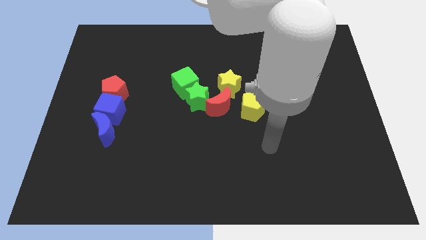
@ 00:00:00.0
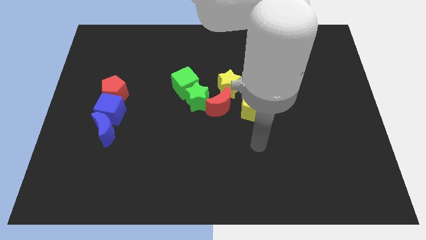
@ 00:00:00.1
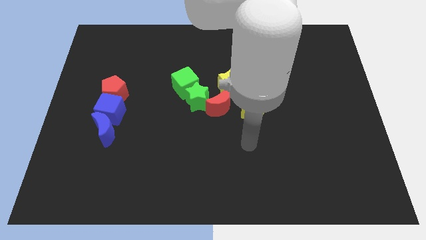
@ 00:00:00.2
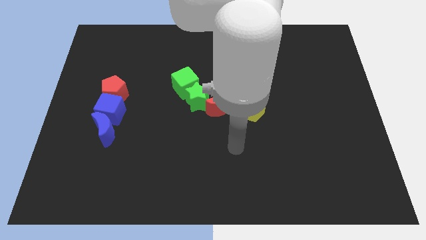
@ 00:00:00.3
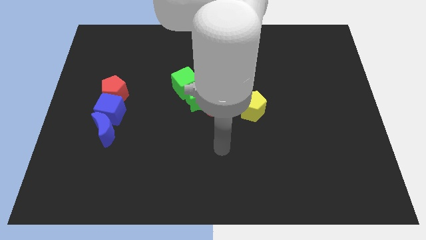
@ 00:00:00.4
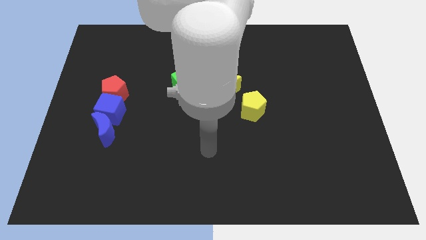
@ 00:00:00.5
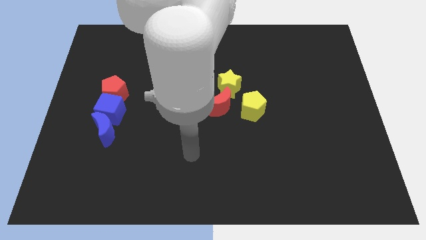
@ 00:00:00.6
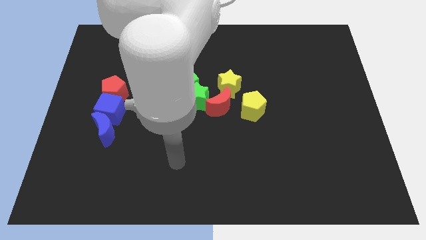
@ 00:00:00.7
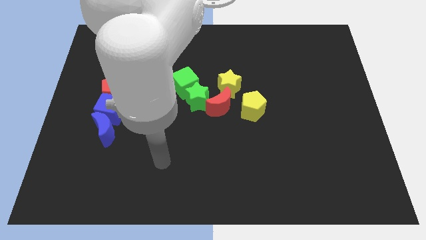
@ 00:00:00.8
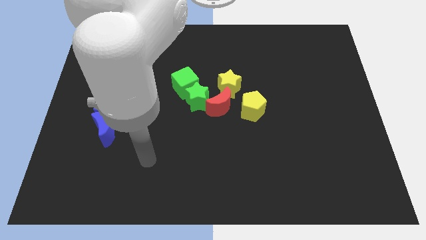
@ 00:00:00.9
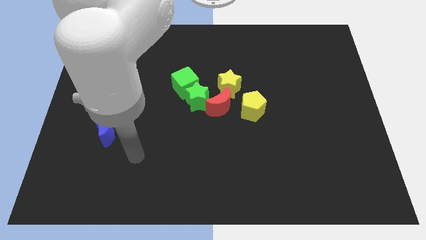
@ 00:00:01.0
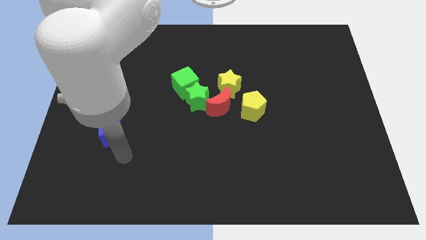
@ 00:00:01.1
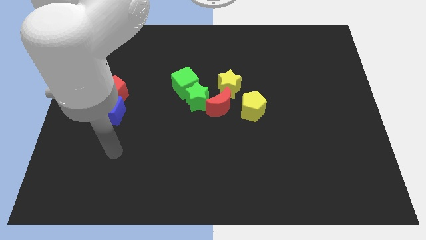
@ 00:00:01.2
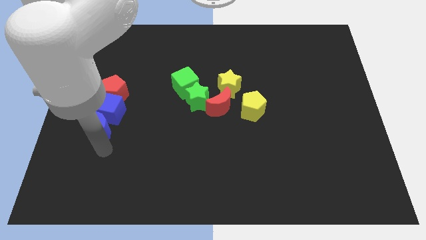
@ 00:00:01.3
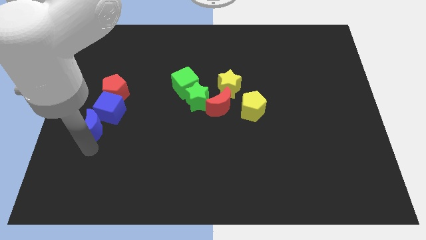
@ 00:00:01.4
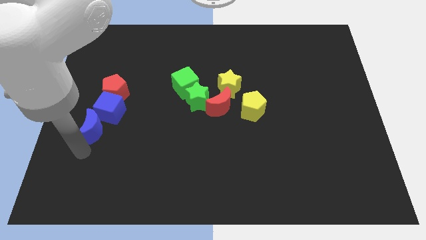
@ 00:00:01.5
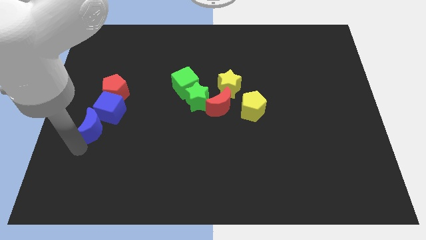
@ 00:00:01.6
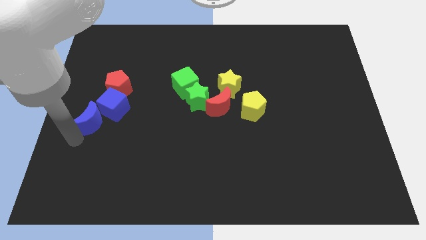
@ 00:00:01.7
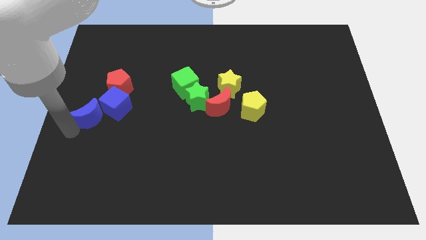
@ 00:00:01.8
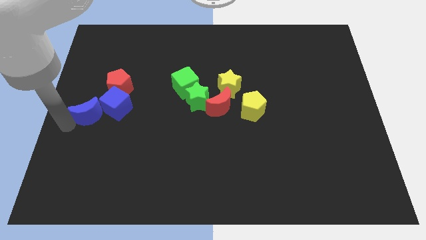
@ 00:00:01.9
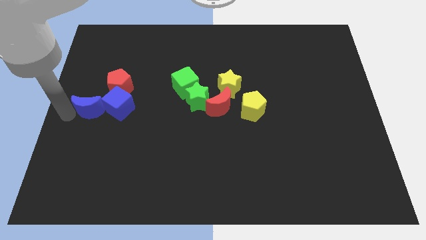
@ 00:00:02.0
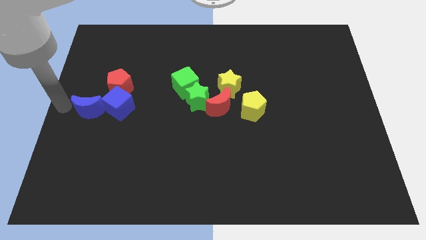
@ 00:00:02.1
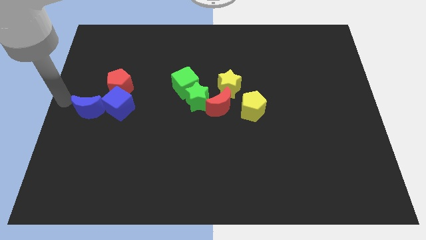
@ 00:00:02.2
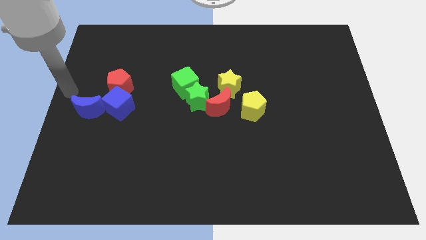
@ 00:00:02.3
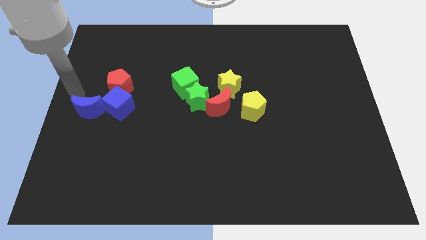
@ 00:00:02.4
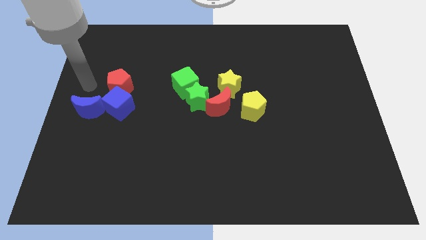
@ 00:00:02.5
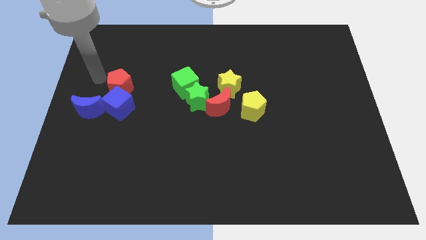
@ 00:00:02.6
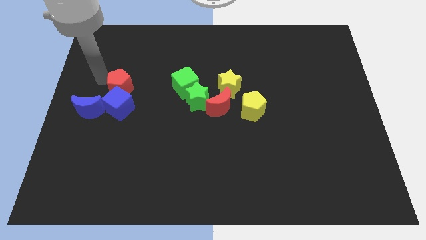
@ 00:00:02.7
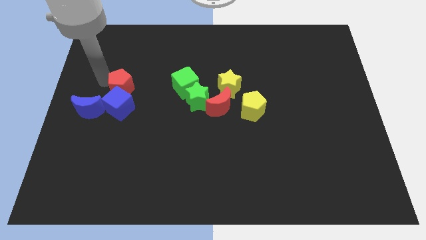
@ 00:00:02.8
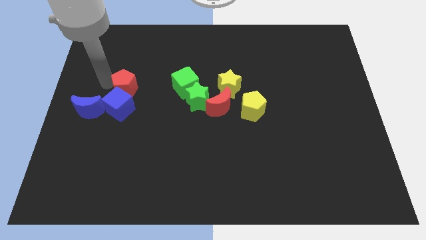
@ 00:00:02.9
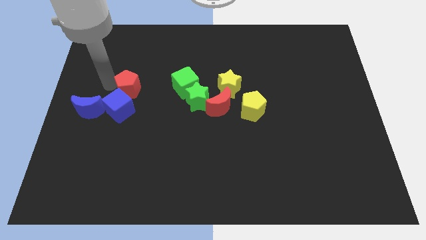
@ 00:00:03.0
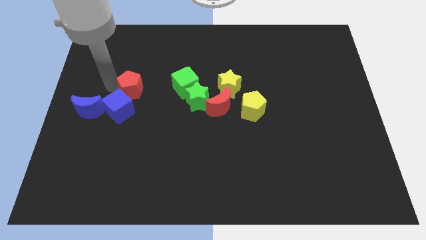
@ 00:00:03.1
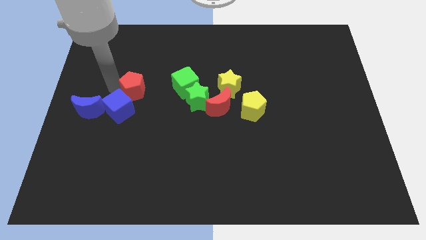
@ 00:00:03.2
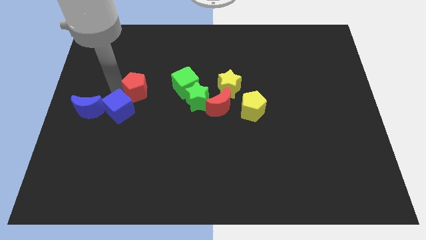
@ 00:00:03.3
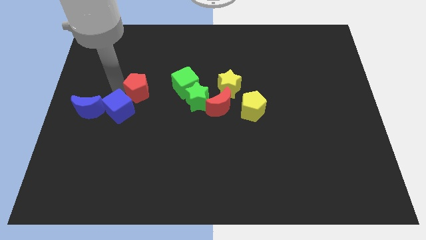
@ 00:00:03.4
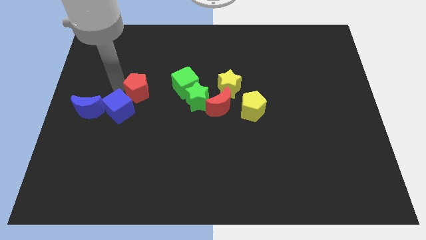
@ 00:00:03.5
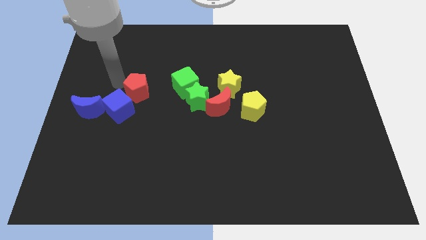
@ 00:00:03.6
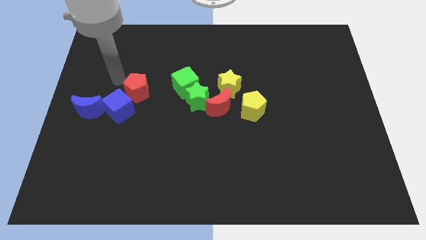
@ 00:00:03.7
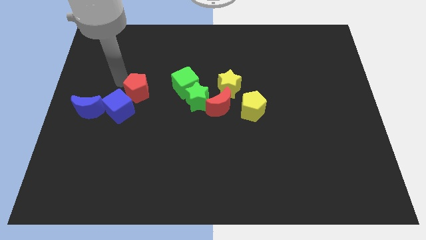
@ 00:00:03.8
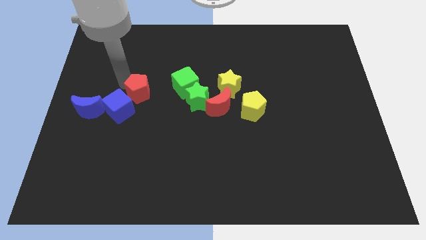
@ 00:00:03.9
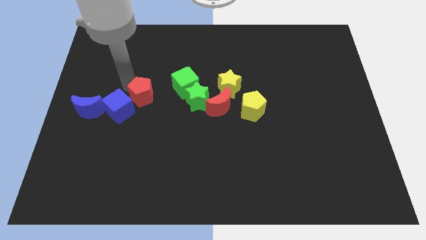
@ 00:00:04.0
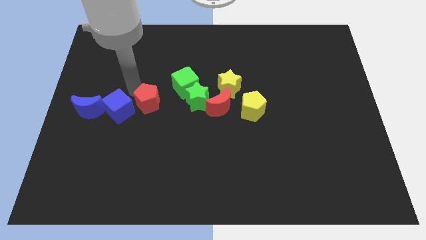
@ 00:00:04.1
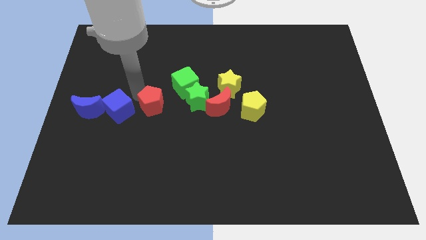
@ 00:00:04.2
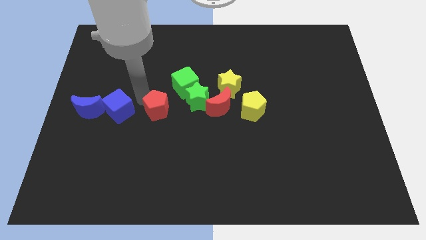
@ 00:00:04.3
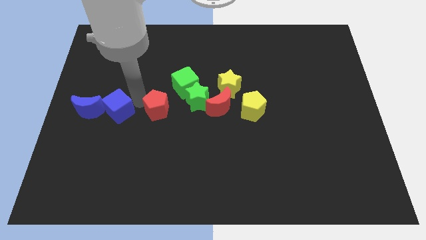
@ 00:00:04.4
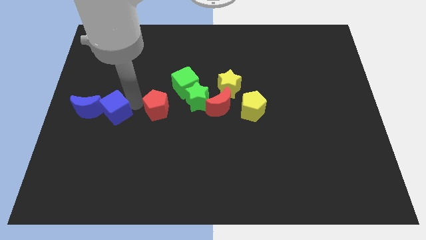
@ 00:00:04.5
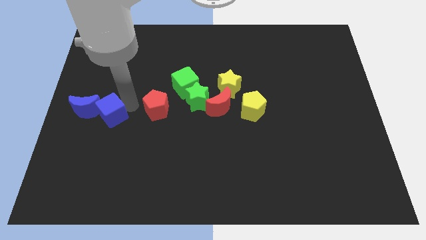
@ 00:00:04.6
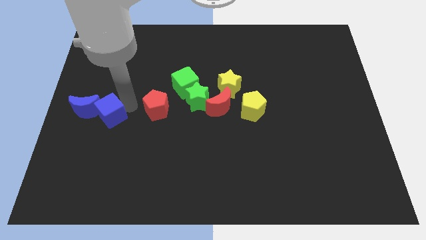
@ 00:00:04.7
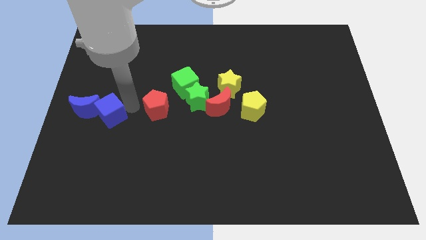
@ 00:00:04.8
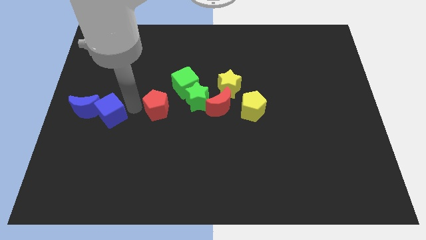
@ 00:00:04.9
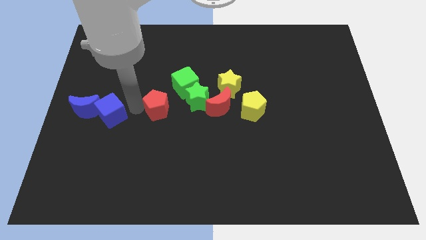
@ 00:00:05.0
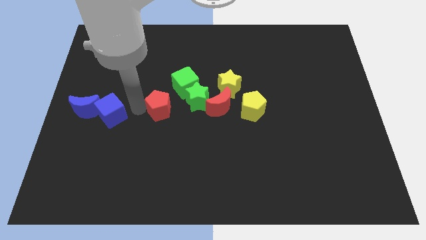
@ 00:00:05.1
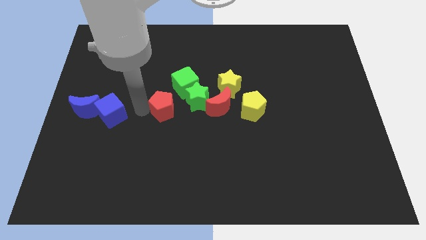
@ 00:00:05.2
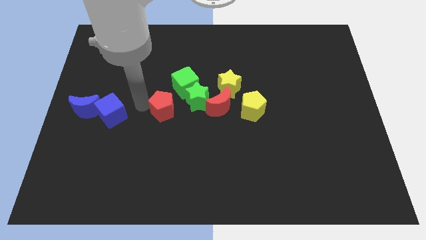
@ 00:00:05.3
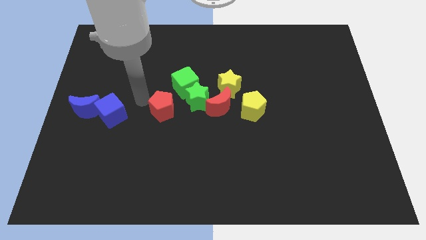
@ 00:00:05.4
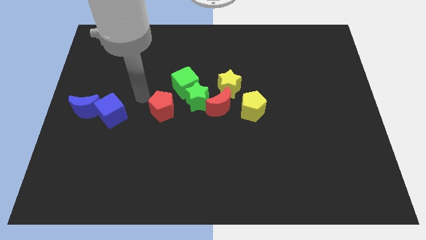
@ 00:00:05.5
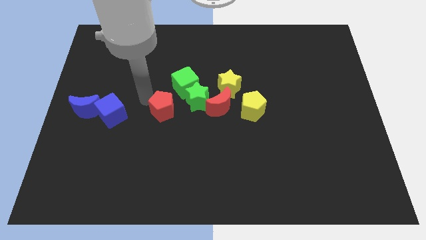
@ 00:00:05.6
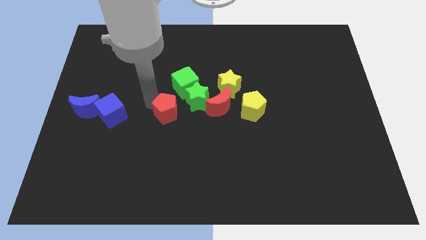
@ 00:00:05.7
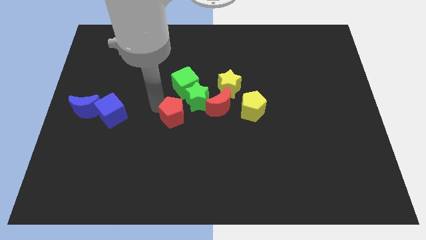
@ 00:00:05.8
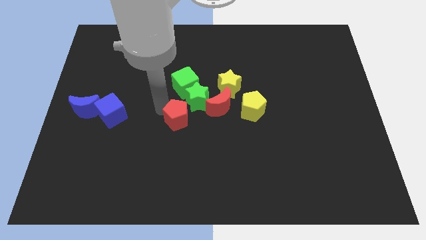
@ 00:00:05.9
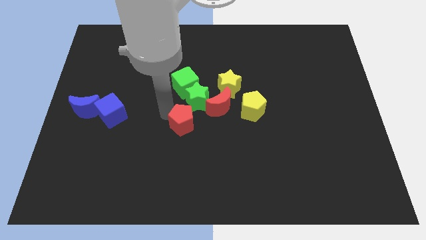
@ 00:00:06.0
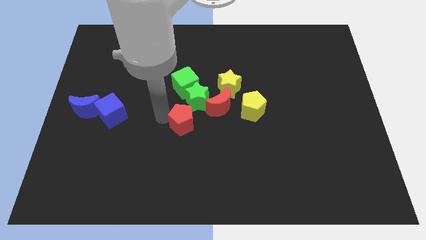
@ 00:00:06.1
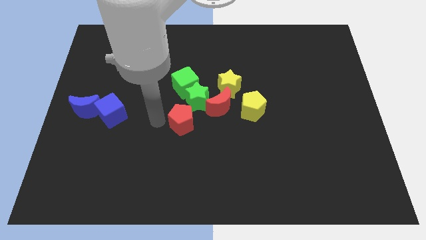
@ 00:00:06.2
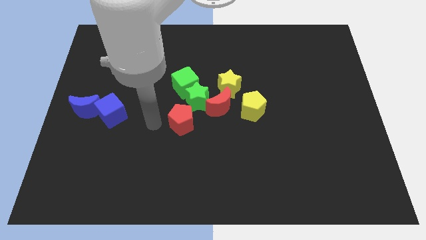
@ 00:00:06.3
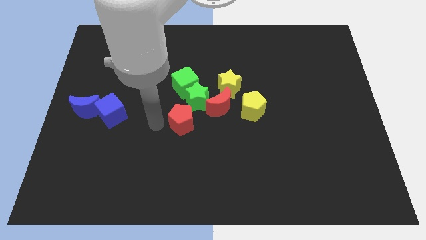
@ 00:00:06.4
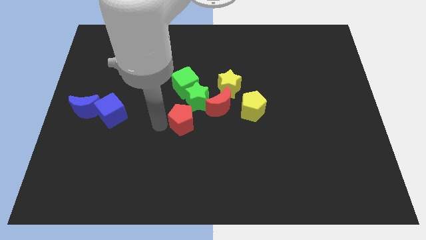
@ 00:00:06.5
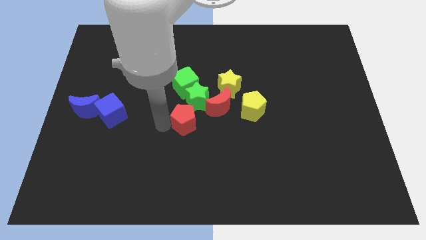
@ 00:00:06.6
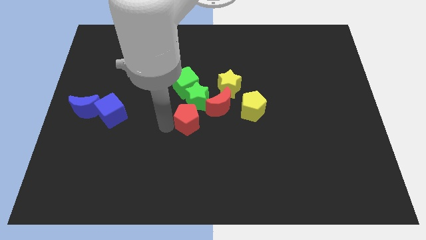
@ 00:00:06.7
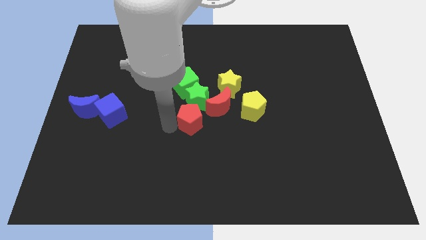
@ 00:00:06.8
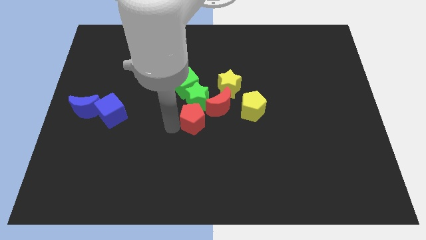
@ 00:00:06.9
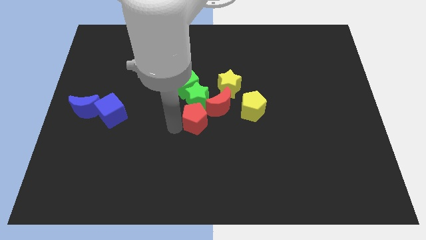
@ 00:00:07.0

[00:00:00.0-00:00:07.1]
move the red pentagon to the bottom right of the green star
